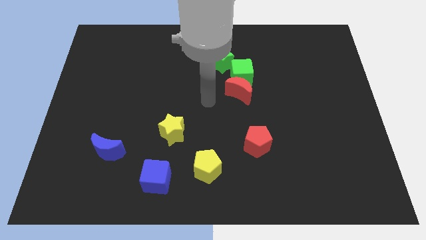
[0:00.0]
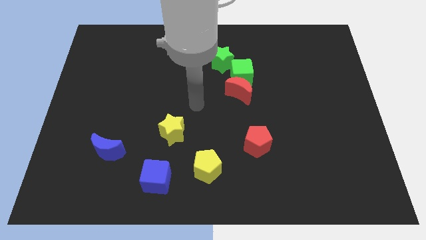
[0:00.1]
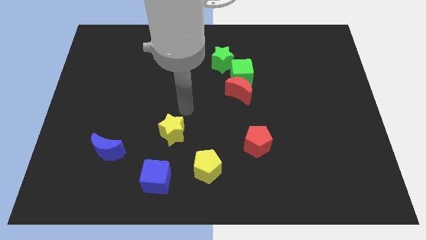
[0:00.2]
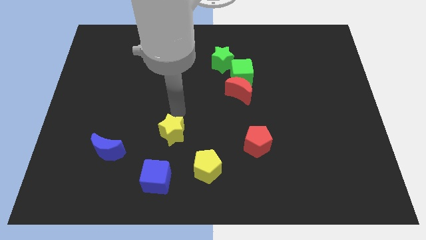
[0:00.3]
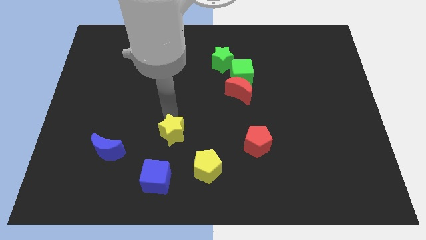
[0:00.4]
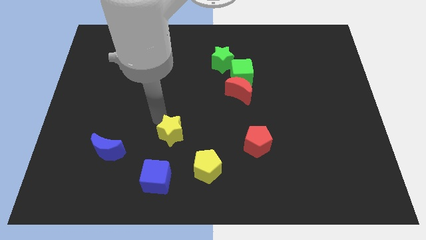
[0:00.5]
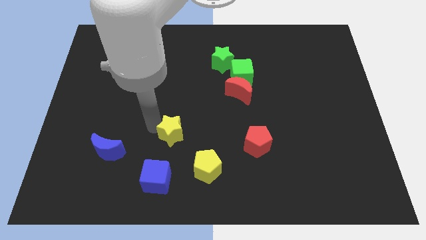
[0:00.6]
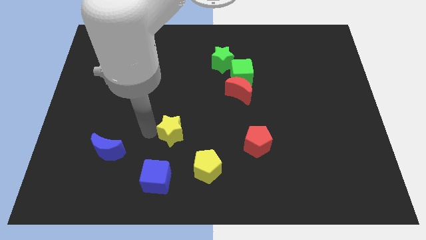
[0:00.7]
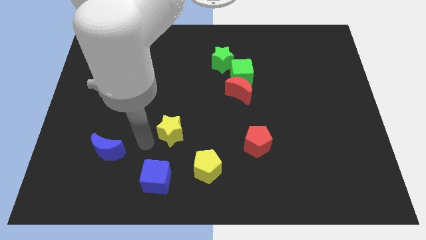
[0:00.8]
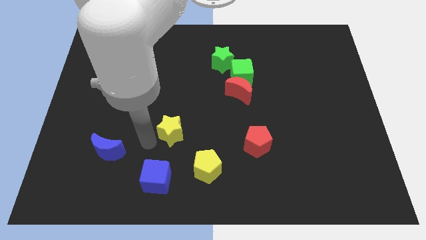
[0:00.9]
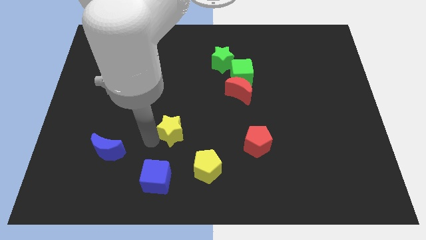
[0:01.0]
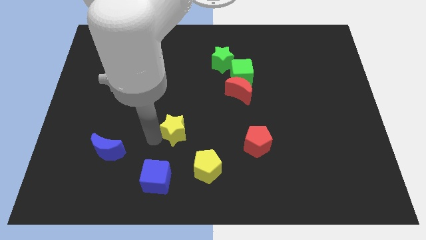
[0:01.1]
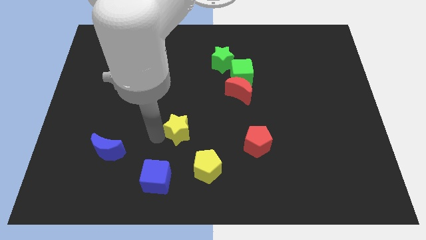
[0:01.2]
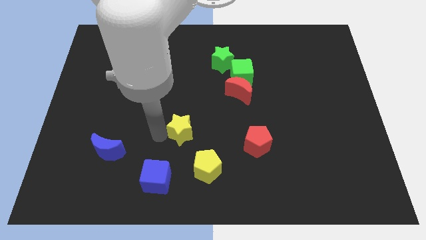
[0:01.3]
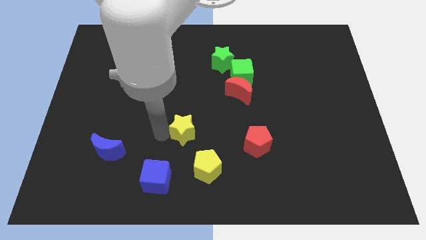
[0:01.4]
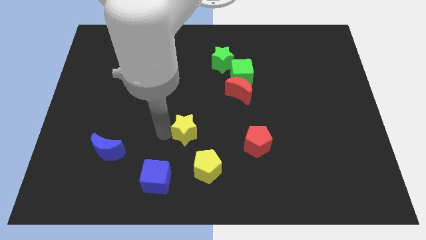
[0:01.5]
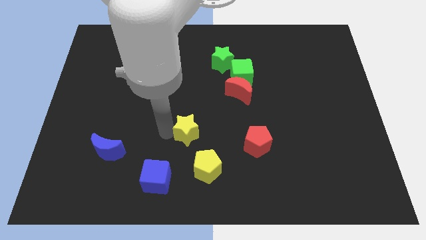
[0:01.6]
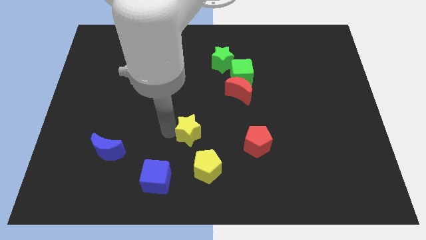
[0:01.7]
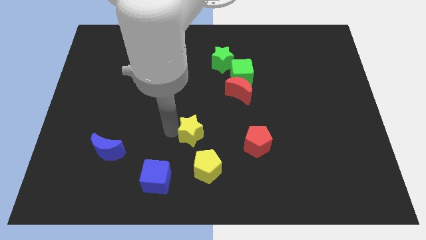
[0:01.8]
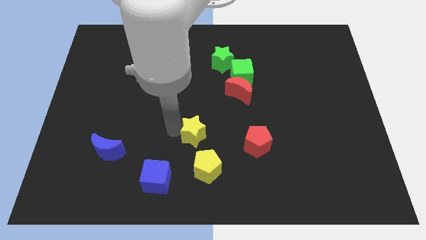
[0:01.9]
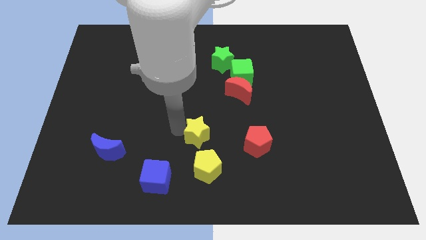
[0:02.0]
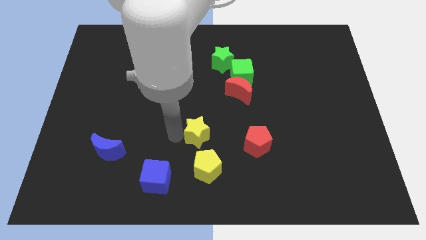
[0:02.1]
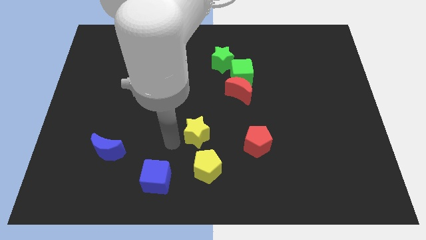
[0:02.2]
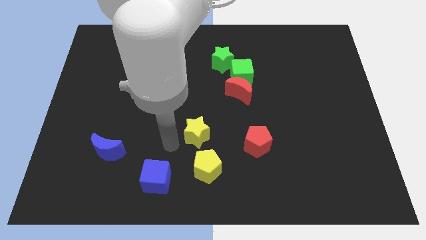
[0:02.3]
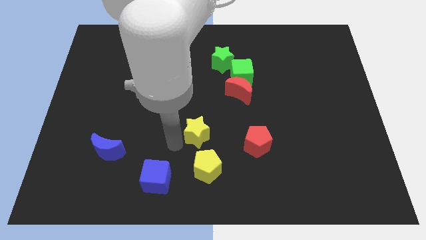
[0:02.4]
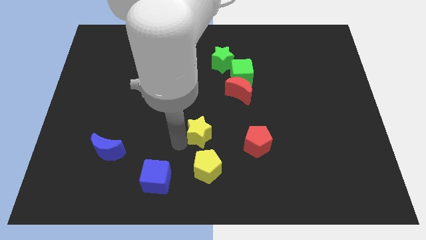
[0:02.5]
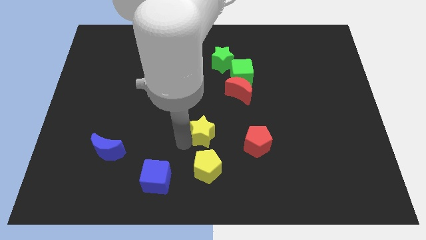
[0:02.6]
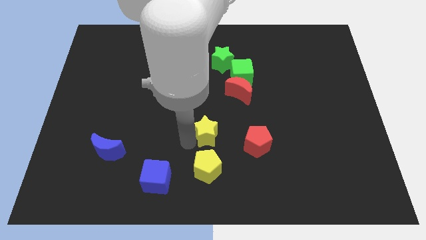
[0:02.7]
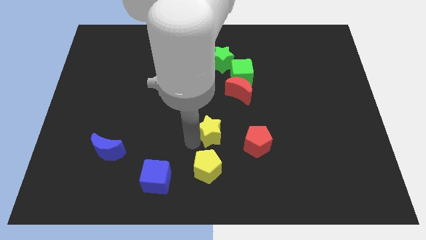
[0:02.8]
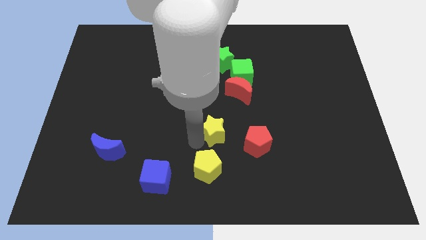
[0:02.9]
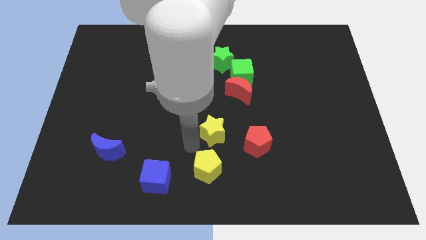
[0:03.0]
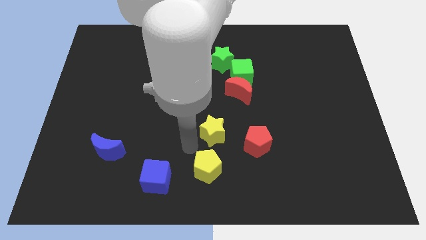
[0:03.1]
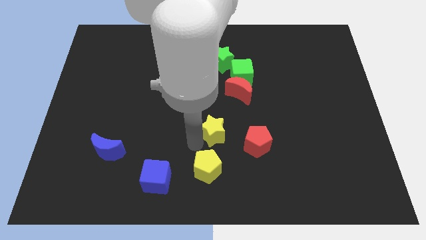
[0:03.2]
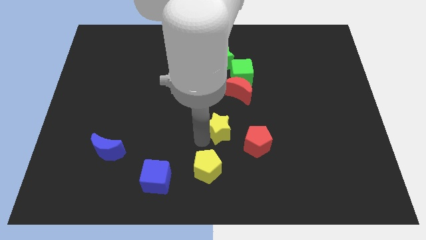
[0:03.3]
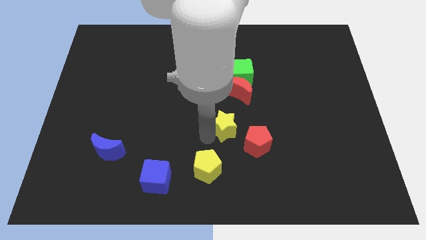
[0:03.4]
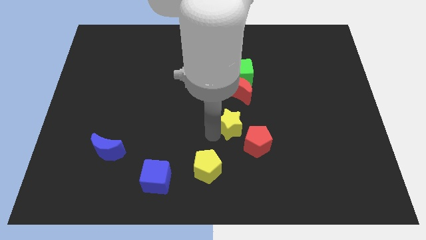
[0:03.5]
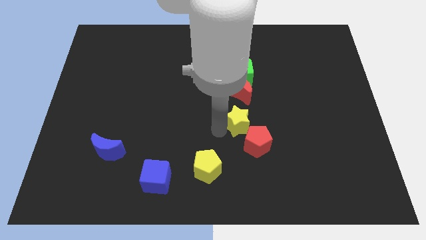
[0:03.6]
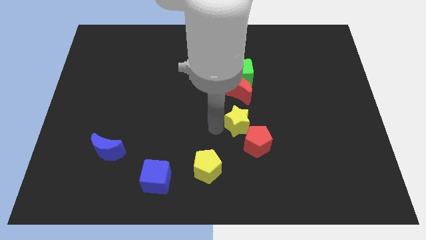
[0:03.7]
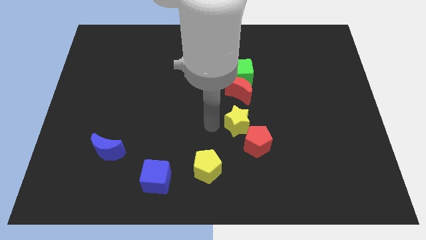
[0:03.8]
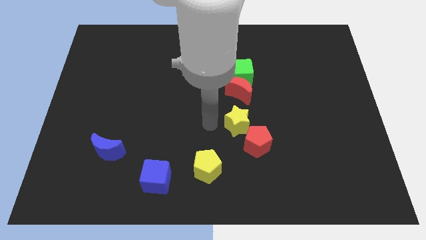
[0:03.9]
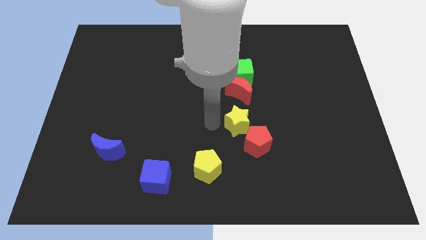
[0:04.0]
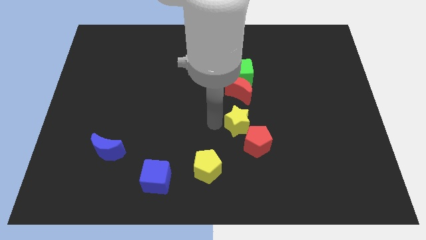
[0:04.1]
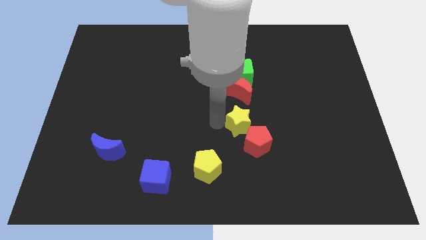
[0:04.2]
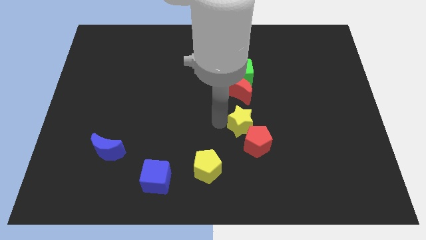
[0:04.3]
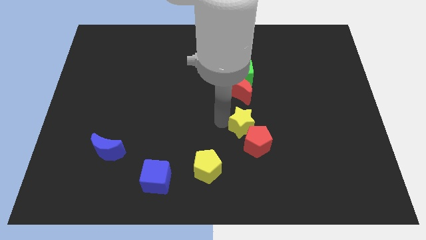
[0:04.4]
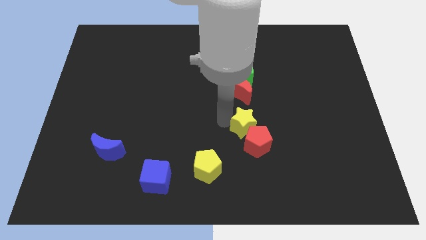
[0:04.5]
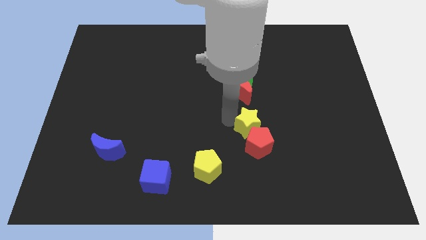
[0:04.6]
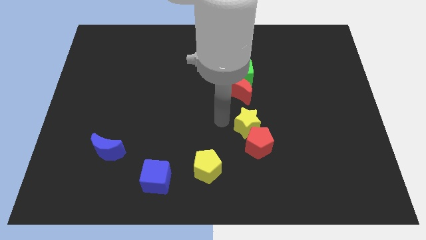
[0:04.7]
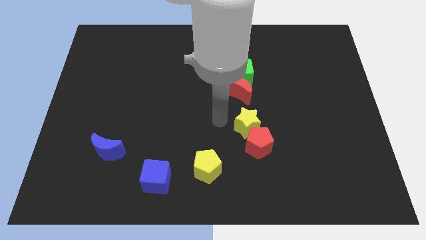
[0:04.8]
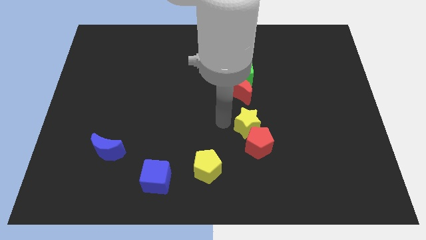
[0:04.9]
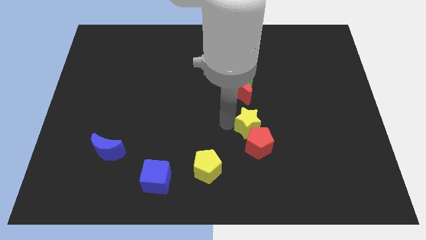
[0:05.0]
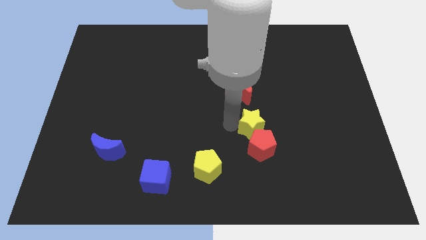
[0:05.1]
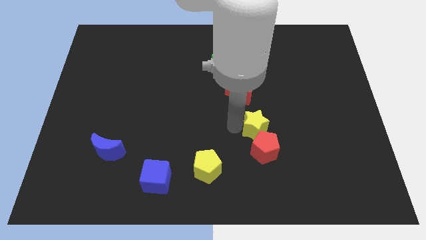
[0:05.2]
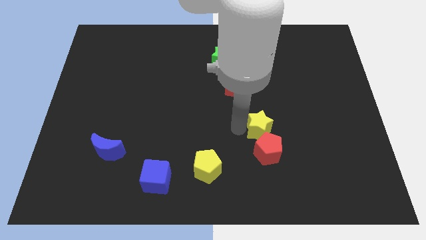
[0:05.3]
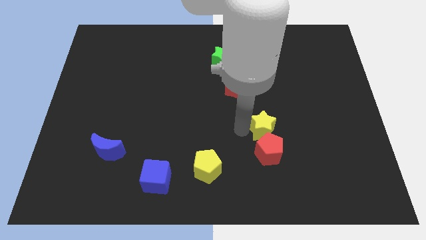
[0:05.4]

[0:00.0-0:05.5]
slide the yellow star right

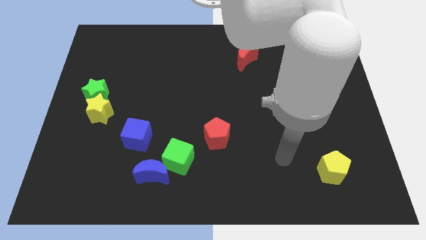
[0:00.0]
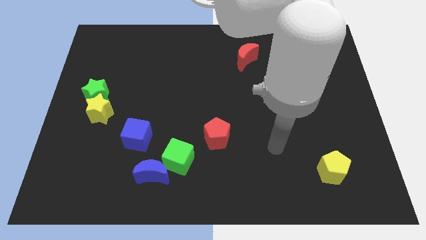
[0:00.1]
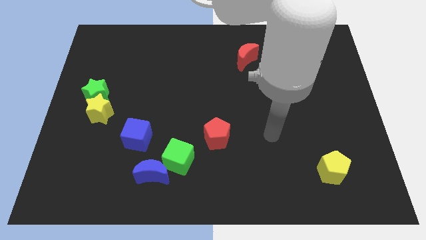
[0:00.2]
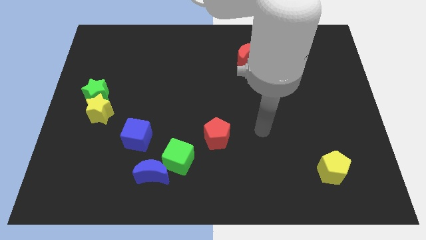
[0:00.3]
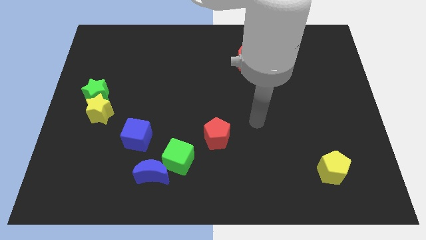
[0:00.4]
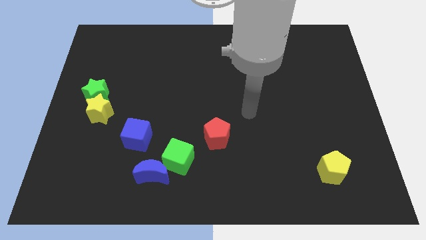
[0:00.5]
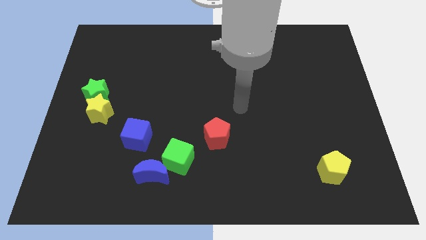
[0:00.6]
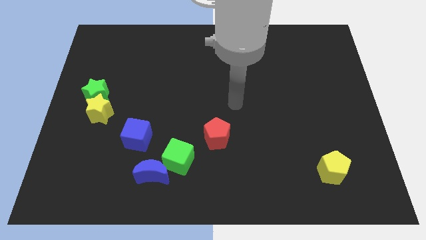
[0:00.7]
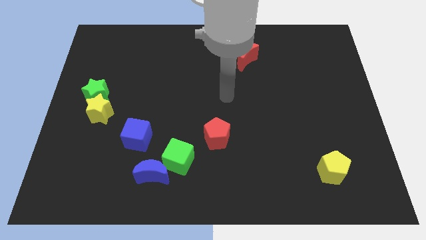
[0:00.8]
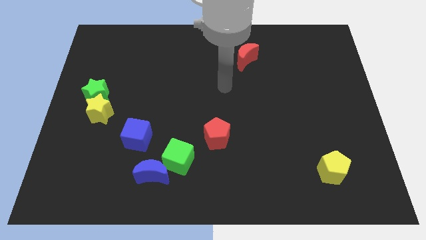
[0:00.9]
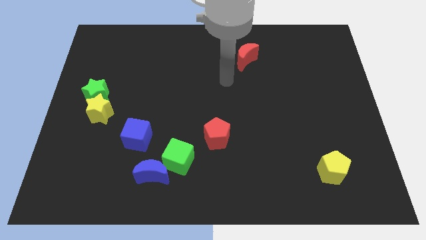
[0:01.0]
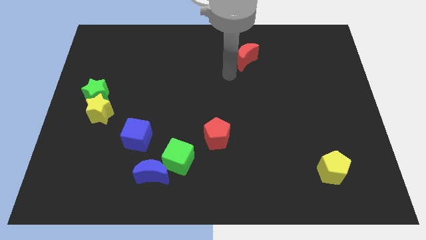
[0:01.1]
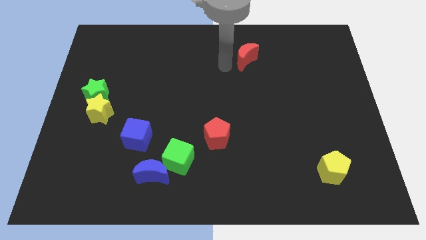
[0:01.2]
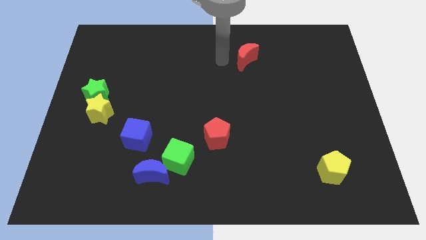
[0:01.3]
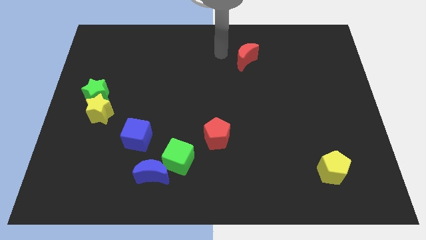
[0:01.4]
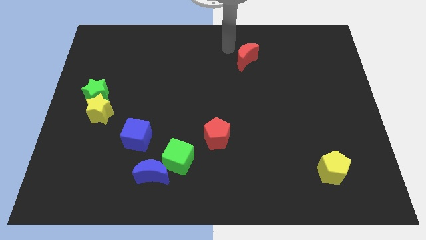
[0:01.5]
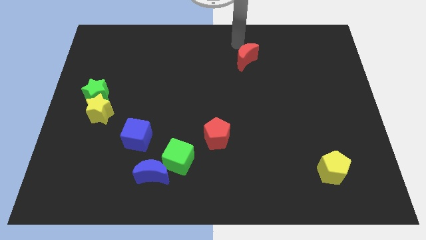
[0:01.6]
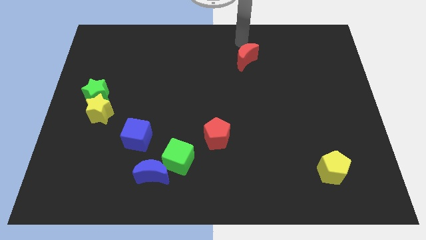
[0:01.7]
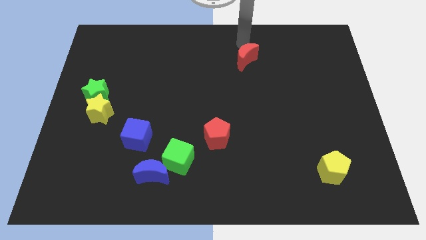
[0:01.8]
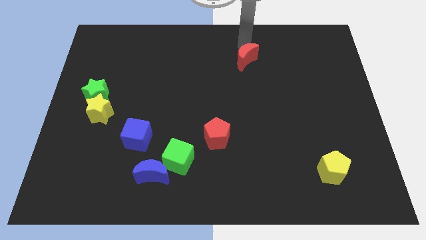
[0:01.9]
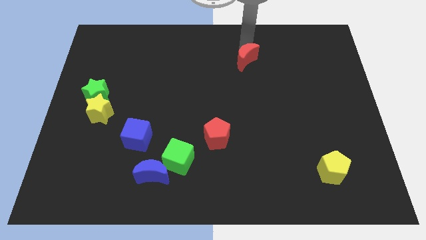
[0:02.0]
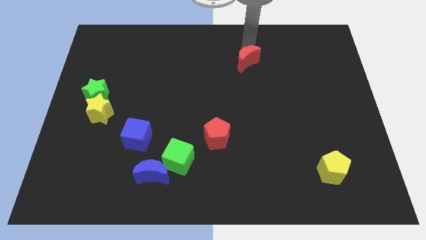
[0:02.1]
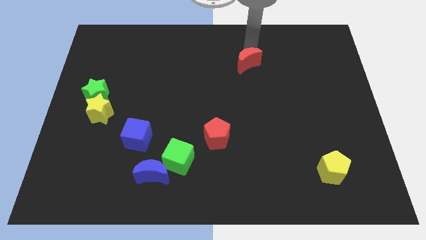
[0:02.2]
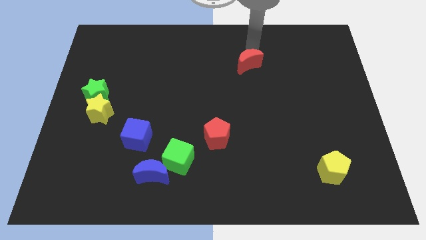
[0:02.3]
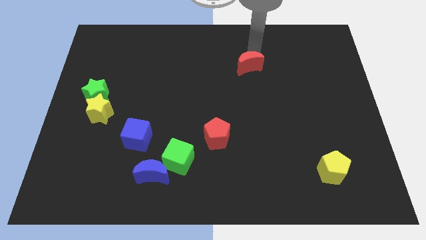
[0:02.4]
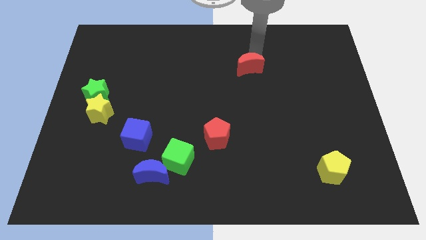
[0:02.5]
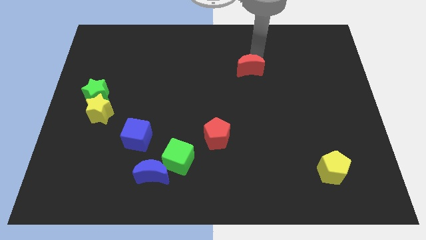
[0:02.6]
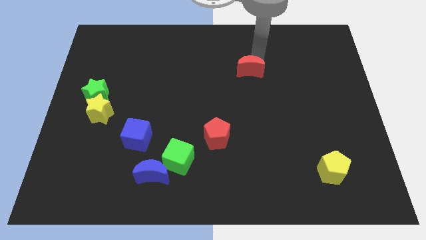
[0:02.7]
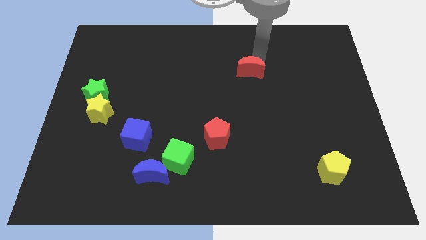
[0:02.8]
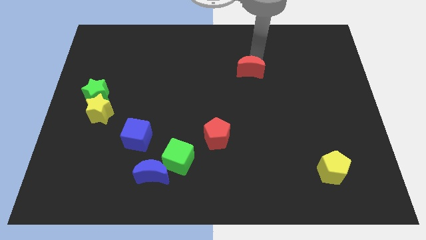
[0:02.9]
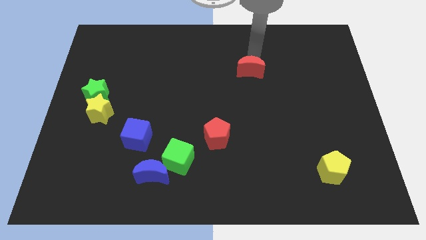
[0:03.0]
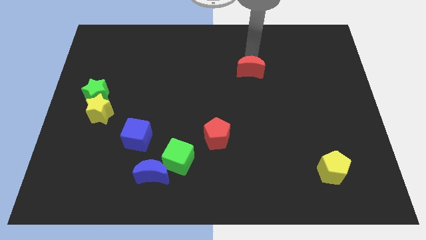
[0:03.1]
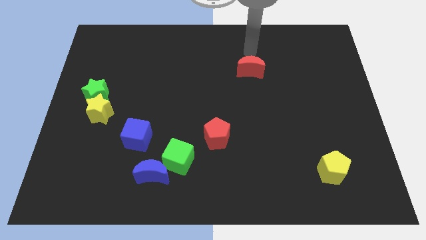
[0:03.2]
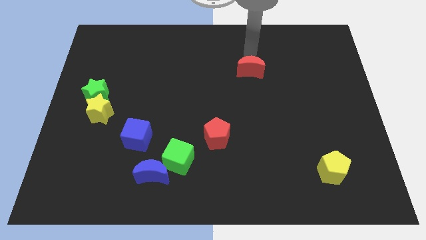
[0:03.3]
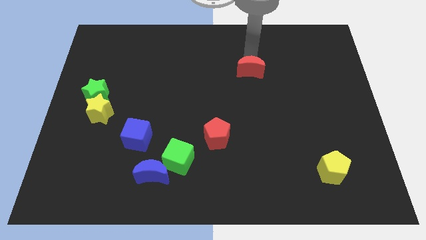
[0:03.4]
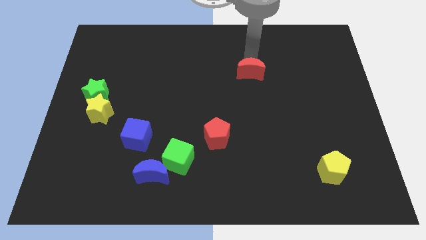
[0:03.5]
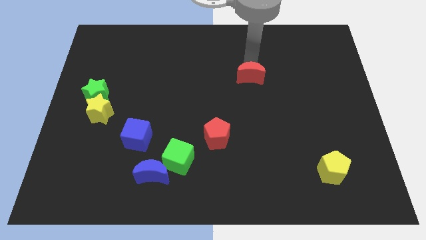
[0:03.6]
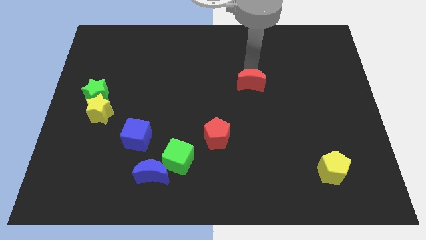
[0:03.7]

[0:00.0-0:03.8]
slightly move the red moon downwards
